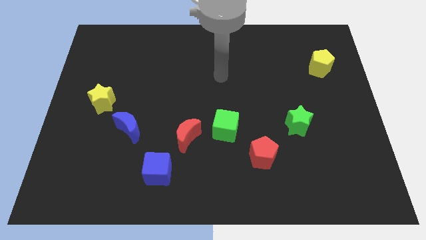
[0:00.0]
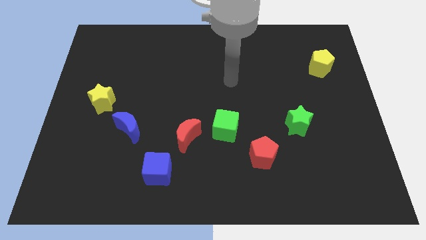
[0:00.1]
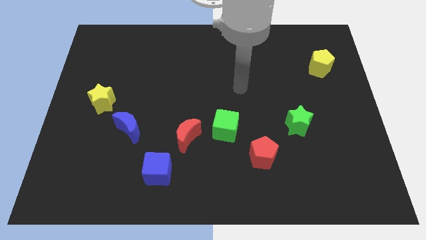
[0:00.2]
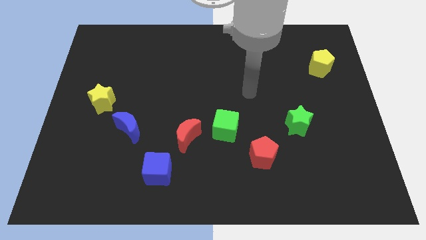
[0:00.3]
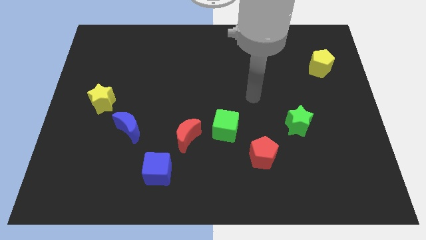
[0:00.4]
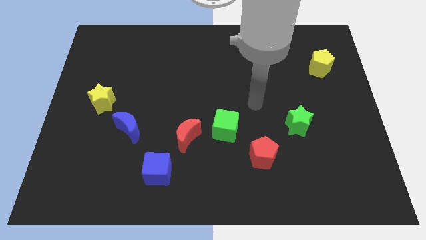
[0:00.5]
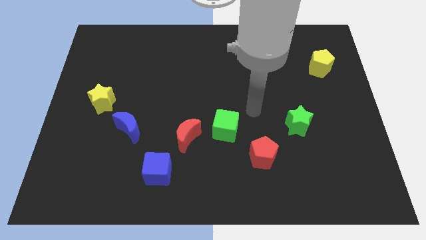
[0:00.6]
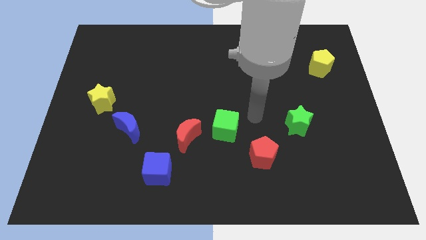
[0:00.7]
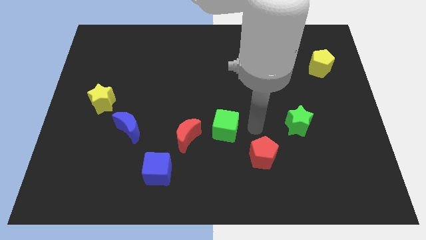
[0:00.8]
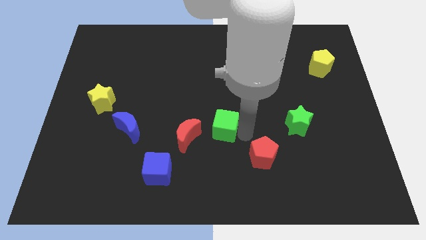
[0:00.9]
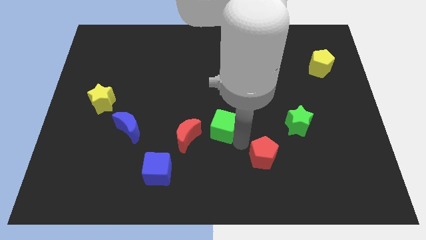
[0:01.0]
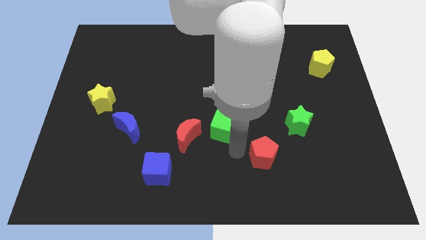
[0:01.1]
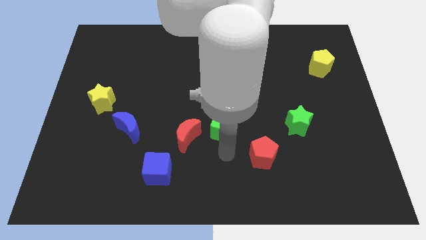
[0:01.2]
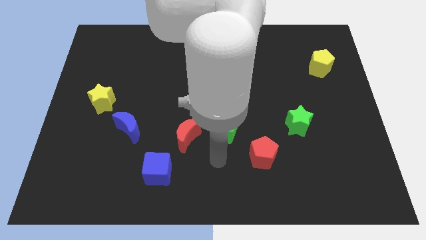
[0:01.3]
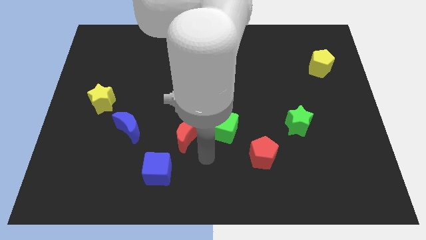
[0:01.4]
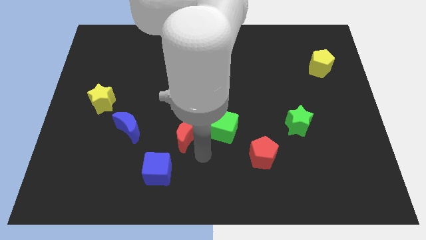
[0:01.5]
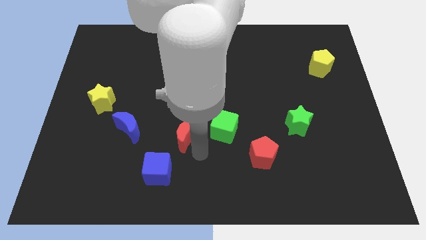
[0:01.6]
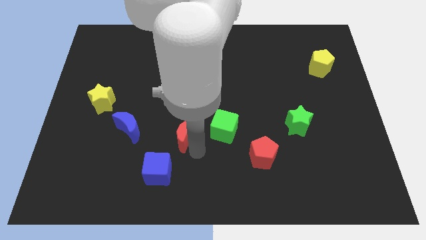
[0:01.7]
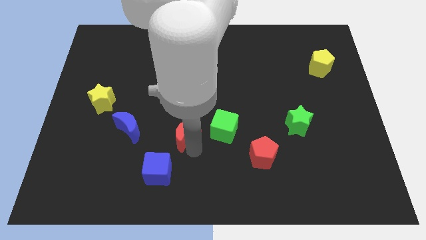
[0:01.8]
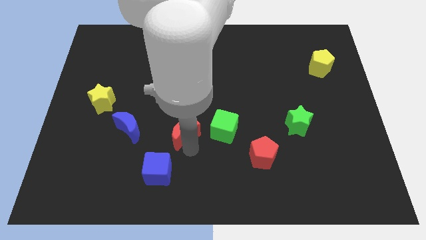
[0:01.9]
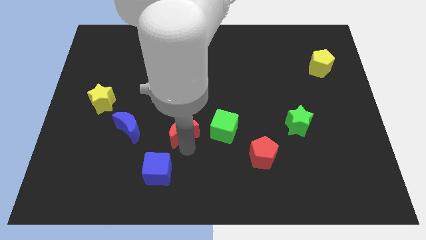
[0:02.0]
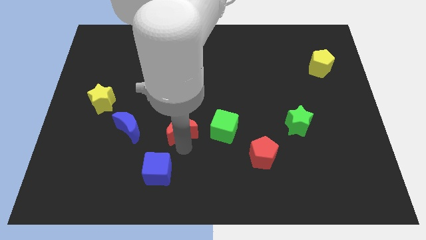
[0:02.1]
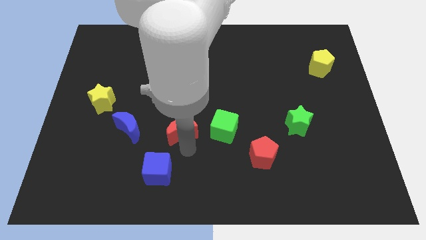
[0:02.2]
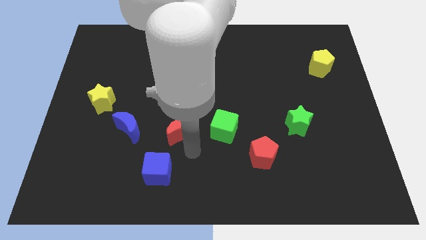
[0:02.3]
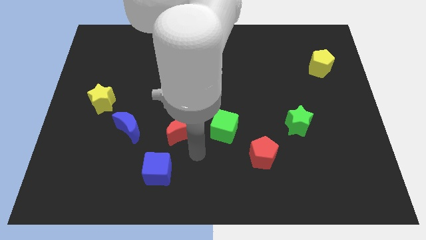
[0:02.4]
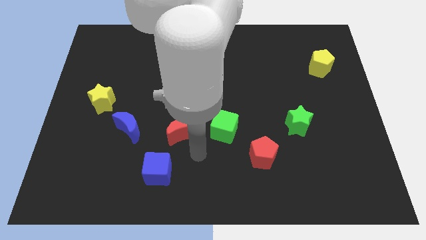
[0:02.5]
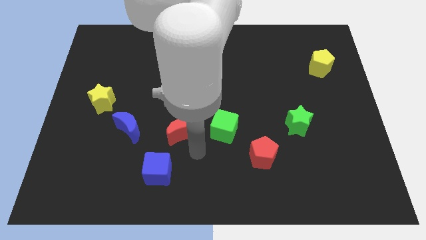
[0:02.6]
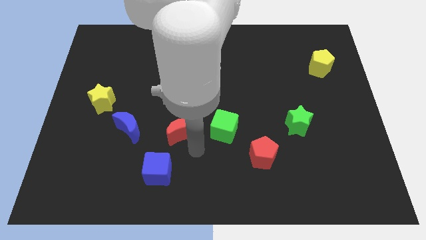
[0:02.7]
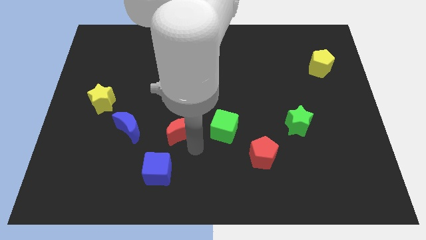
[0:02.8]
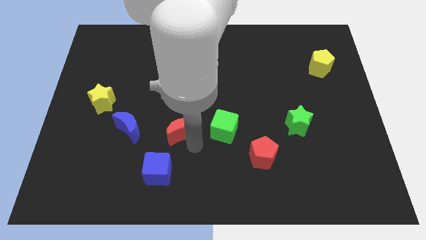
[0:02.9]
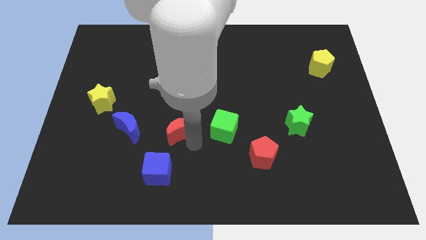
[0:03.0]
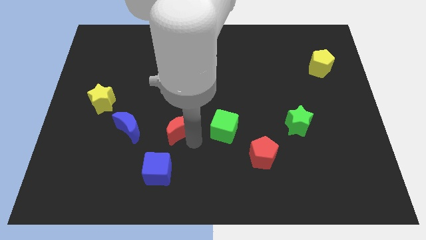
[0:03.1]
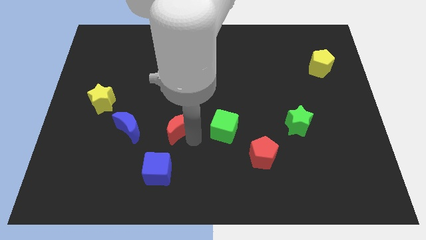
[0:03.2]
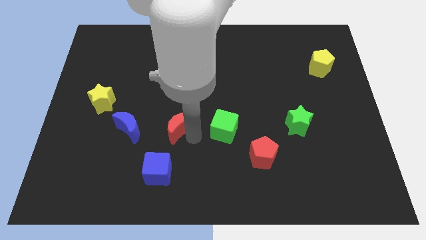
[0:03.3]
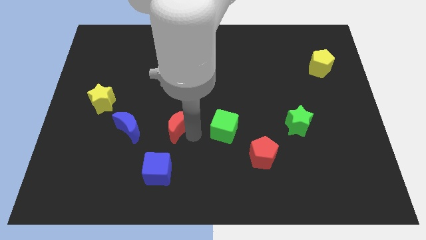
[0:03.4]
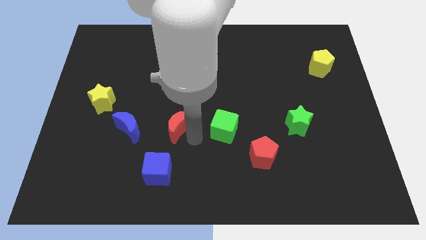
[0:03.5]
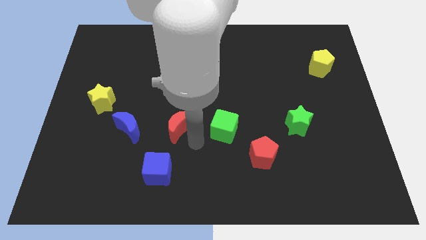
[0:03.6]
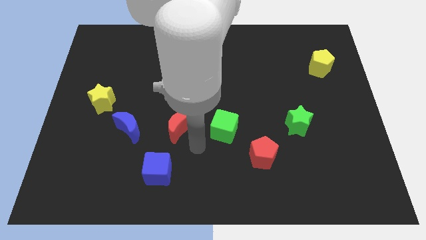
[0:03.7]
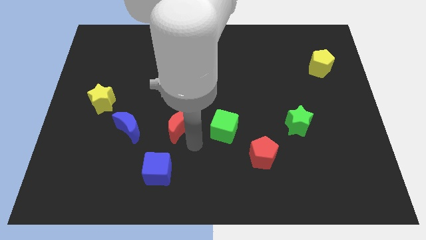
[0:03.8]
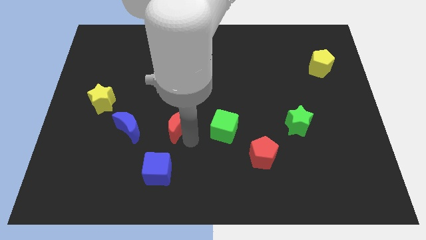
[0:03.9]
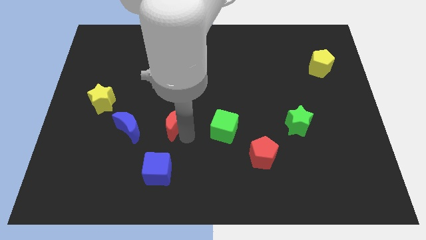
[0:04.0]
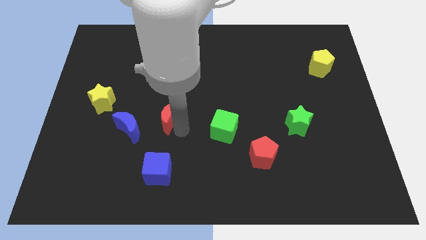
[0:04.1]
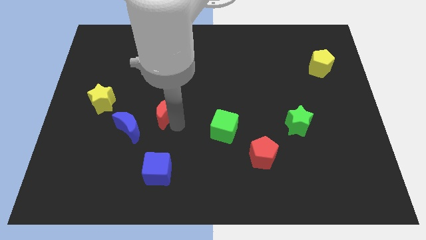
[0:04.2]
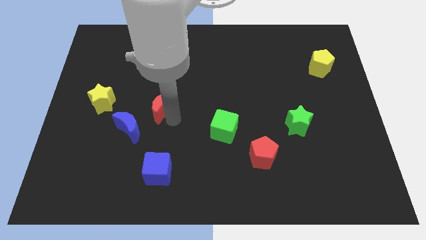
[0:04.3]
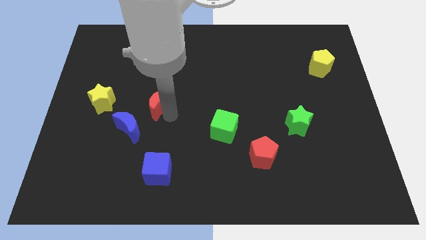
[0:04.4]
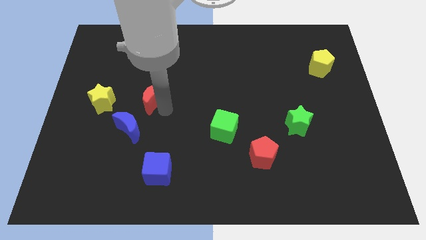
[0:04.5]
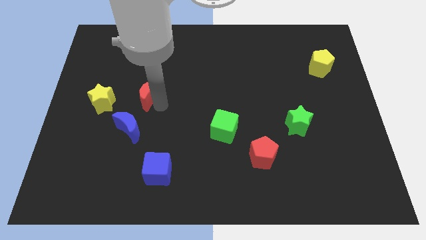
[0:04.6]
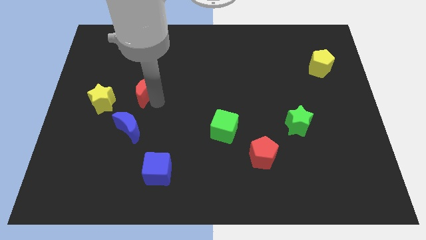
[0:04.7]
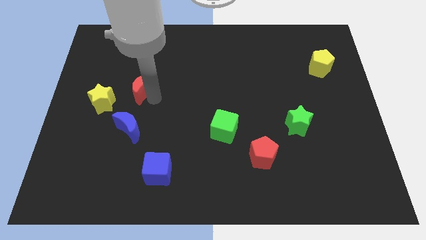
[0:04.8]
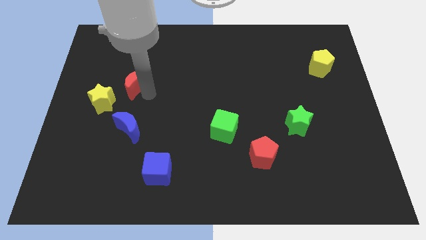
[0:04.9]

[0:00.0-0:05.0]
push the red moon diagonally upwards and left

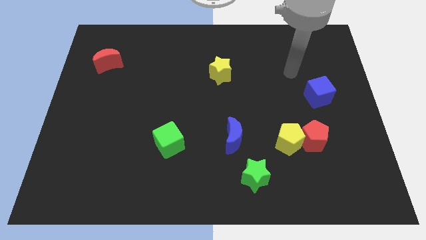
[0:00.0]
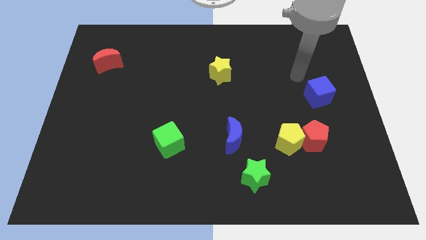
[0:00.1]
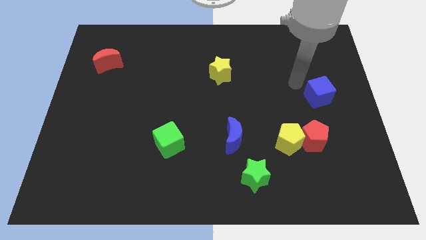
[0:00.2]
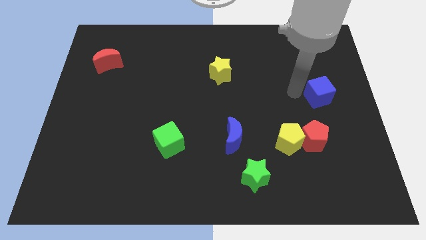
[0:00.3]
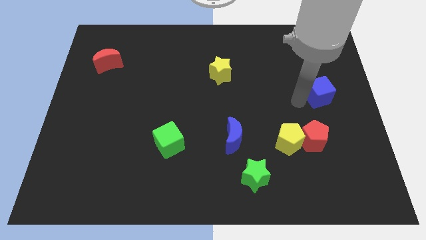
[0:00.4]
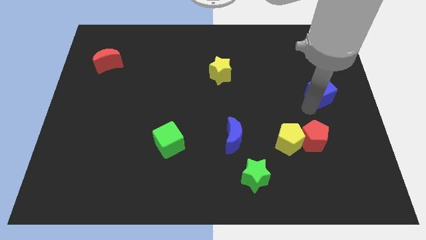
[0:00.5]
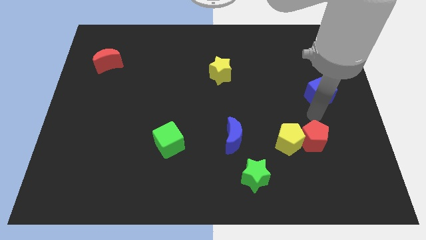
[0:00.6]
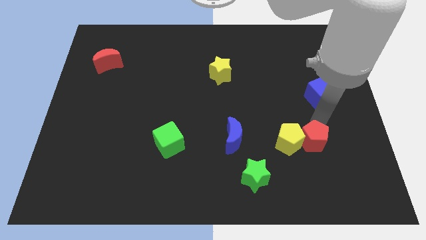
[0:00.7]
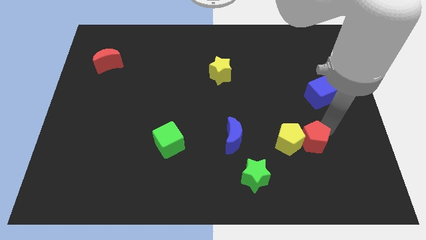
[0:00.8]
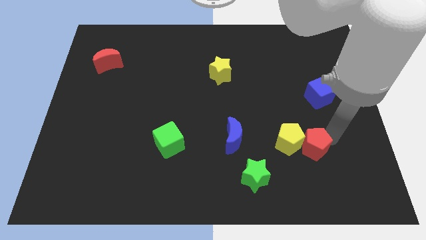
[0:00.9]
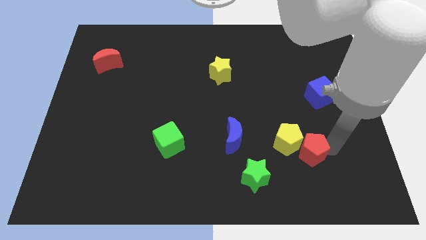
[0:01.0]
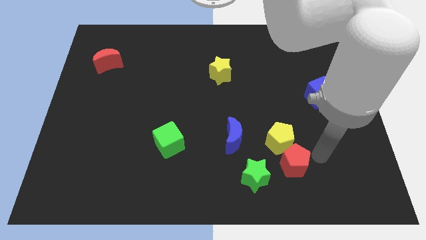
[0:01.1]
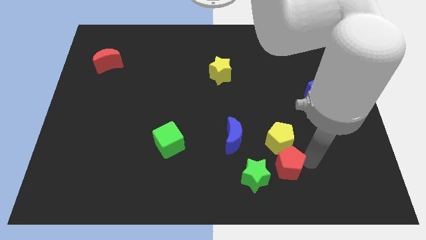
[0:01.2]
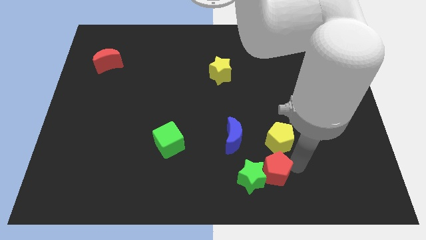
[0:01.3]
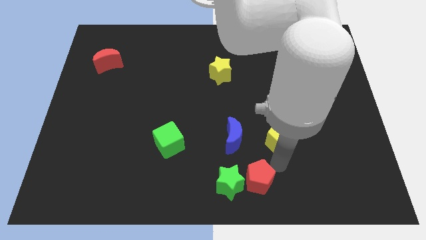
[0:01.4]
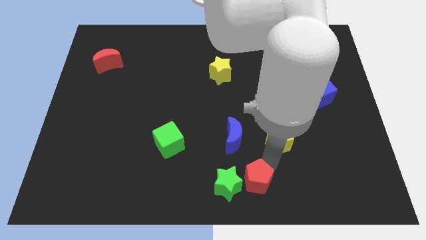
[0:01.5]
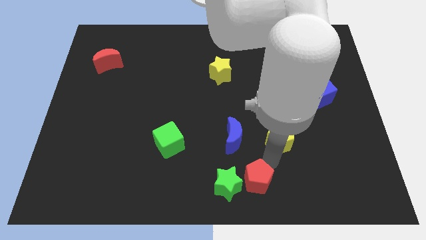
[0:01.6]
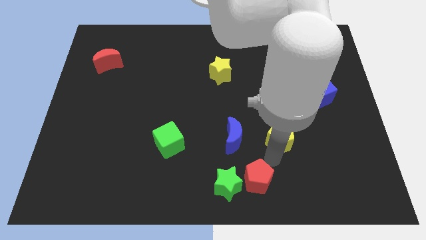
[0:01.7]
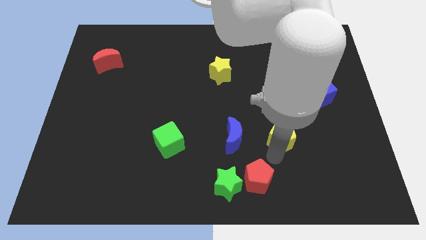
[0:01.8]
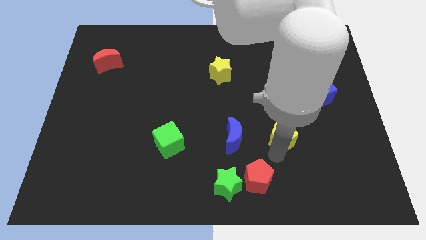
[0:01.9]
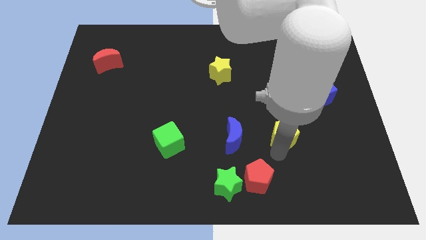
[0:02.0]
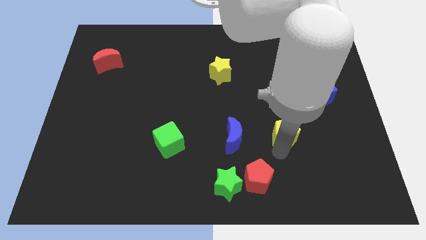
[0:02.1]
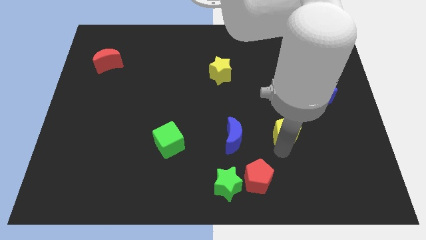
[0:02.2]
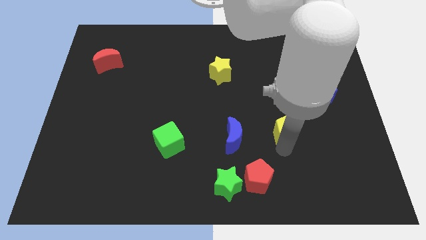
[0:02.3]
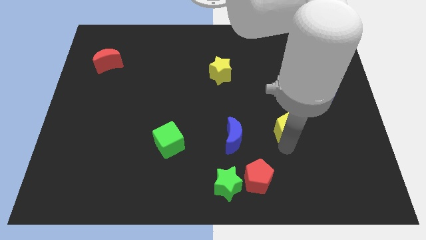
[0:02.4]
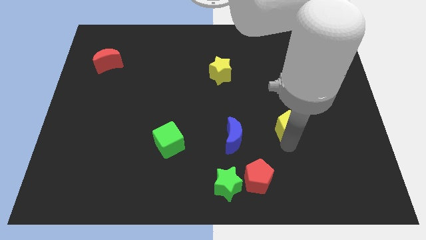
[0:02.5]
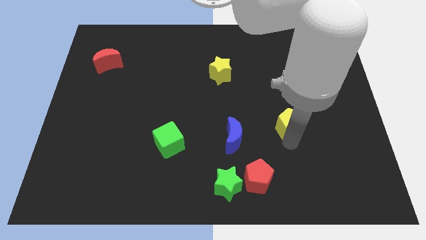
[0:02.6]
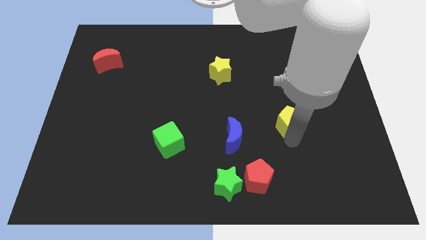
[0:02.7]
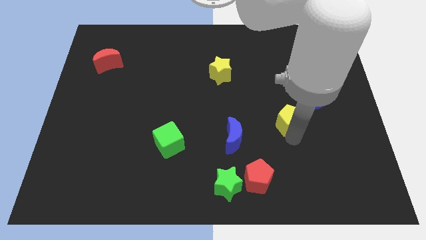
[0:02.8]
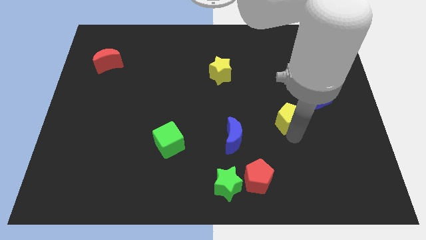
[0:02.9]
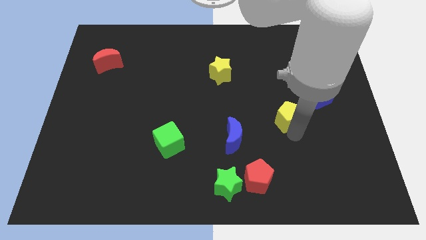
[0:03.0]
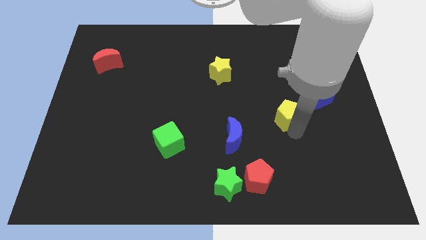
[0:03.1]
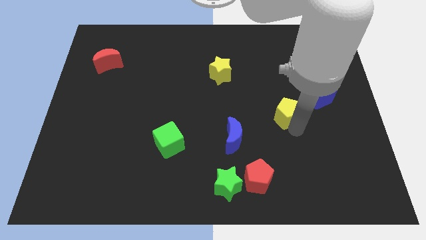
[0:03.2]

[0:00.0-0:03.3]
push the yellow pentagon slightly upwards

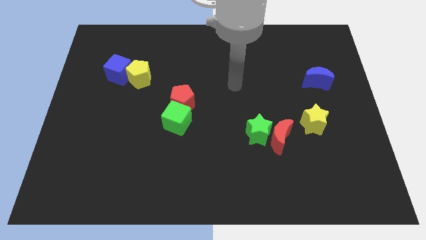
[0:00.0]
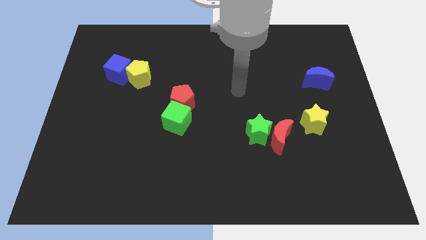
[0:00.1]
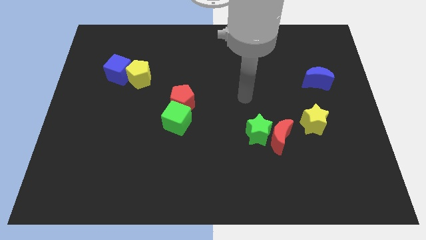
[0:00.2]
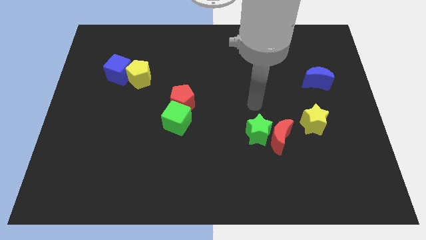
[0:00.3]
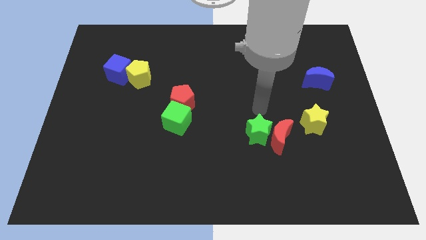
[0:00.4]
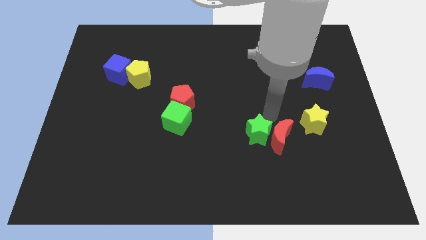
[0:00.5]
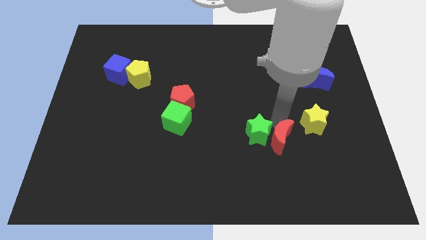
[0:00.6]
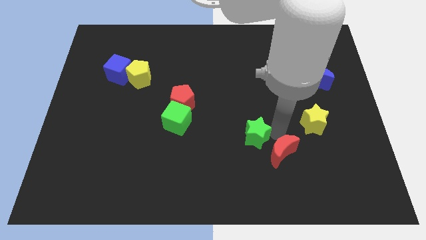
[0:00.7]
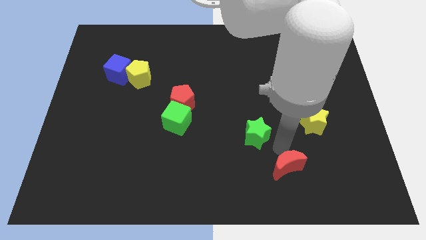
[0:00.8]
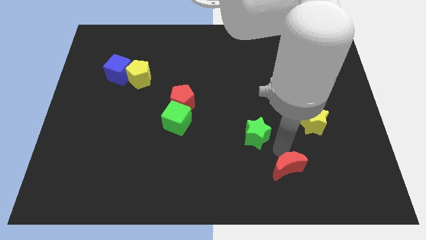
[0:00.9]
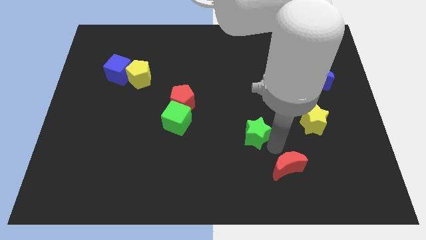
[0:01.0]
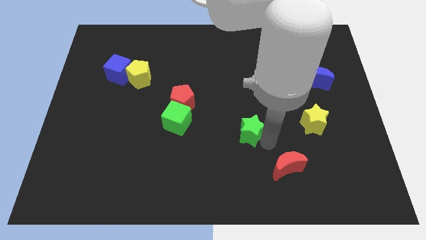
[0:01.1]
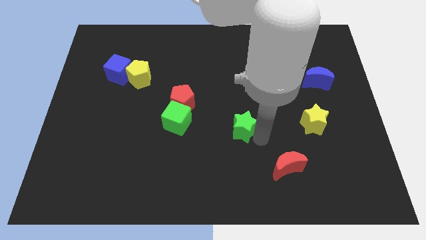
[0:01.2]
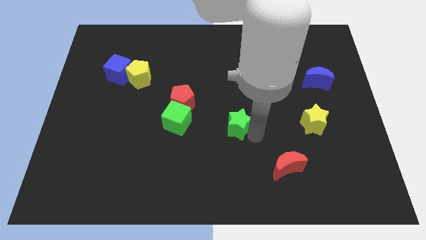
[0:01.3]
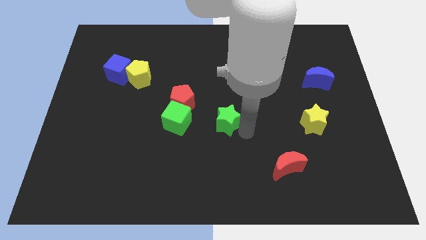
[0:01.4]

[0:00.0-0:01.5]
slightly slide the green star upwards and to the left diagonally
